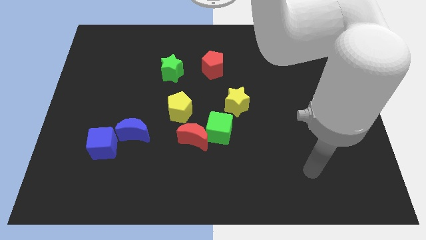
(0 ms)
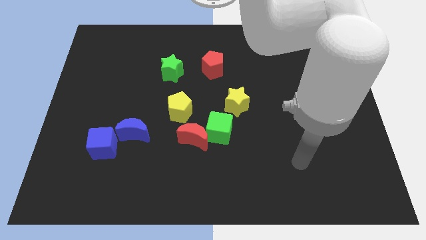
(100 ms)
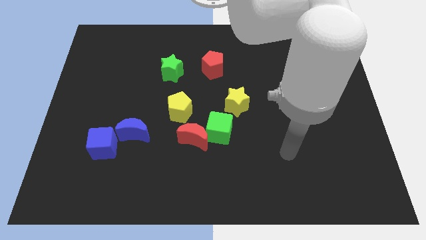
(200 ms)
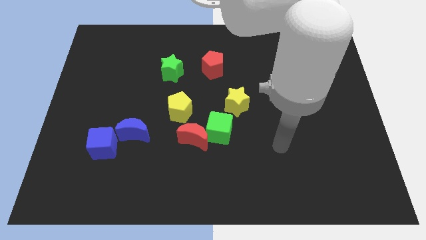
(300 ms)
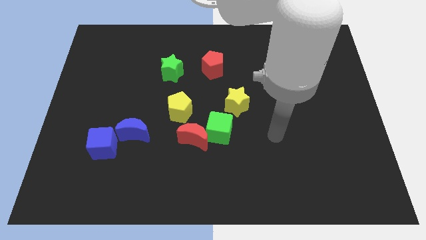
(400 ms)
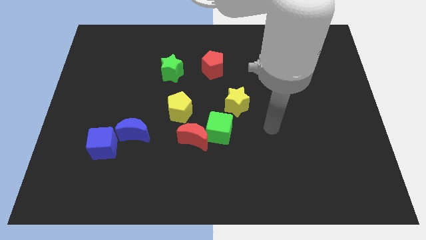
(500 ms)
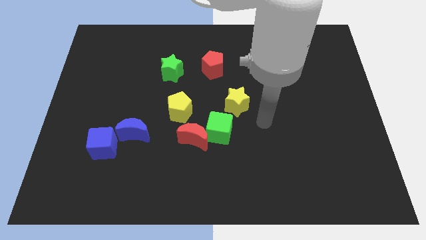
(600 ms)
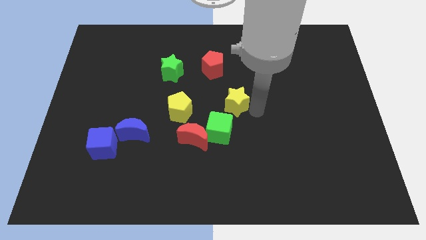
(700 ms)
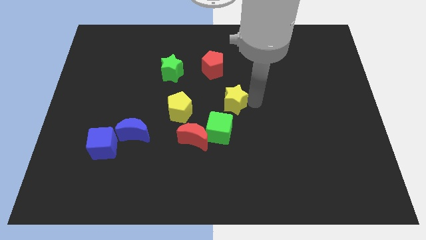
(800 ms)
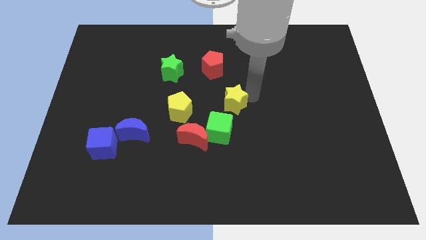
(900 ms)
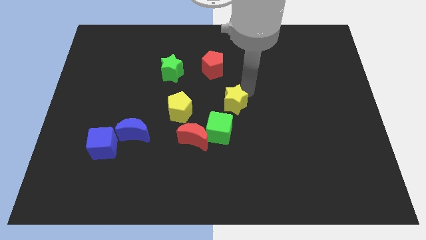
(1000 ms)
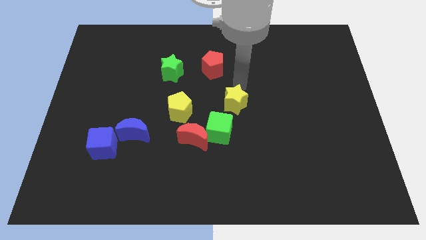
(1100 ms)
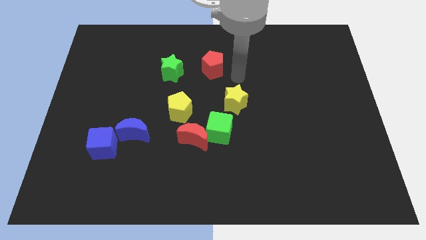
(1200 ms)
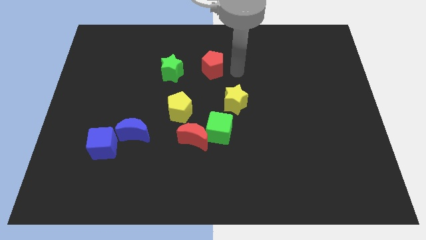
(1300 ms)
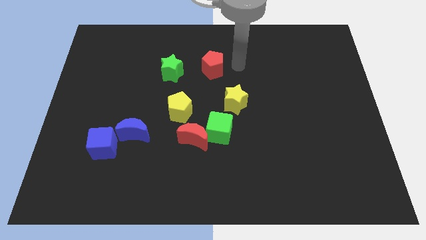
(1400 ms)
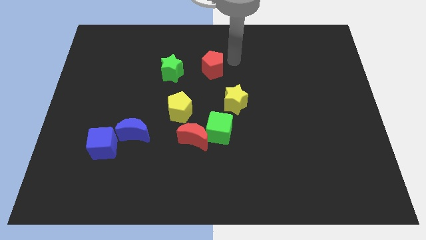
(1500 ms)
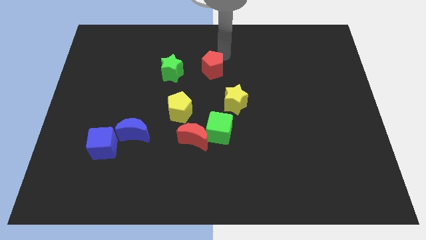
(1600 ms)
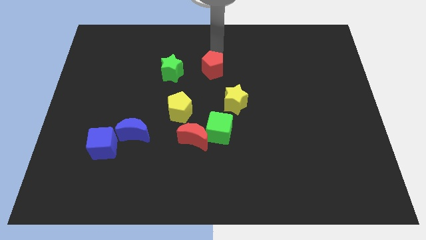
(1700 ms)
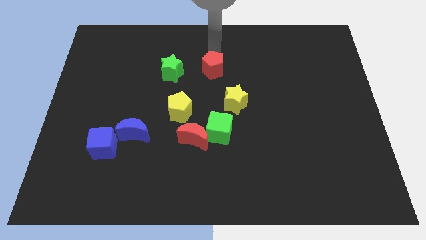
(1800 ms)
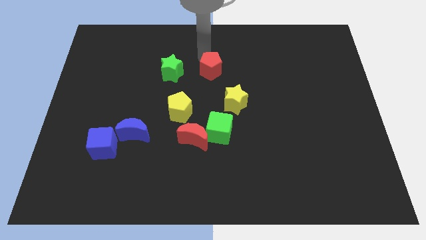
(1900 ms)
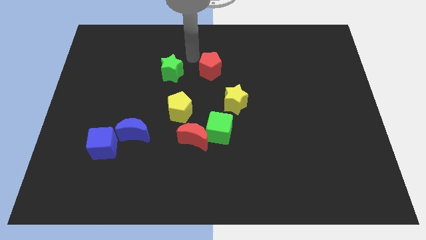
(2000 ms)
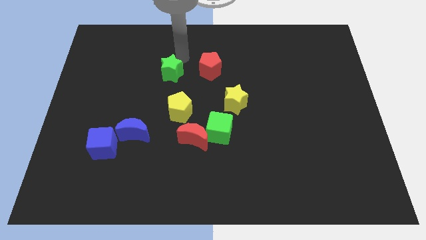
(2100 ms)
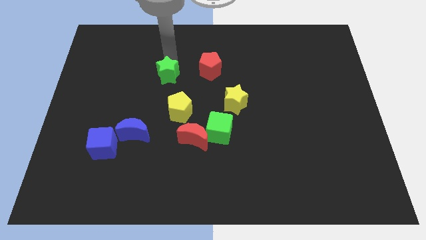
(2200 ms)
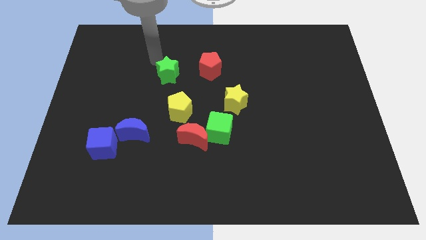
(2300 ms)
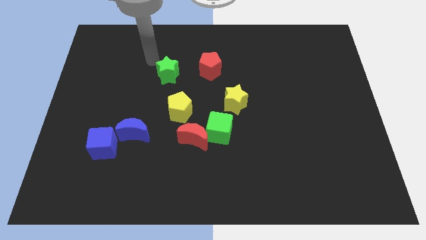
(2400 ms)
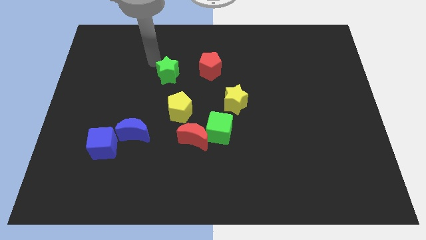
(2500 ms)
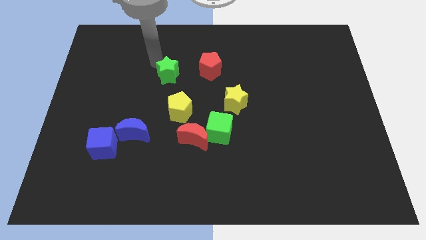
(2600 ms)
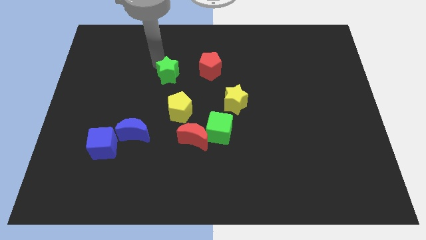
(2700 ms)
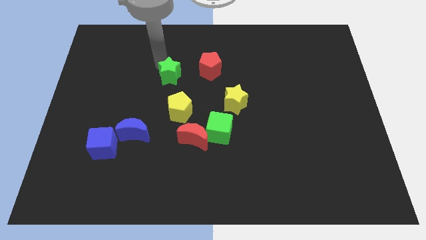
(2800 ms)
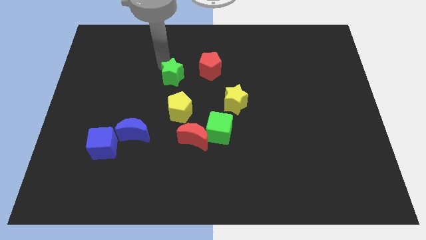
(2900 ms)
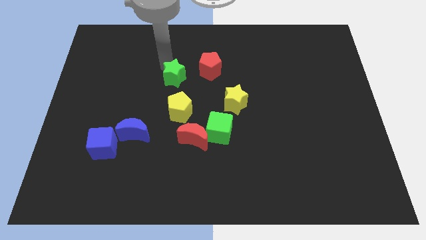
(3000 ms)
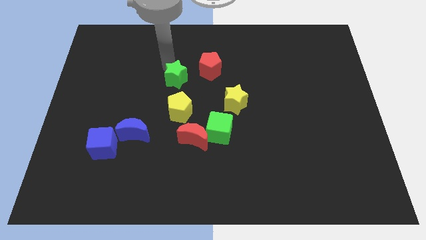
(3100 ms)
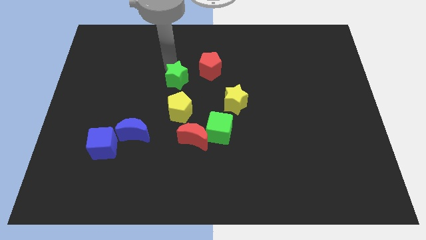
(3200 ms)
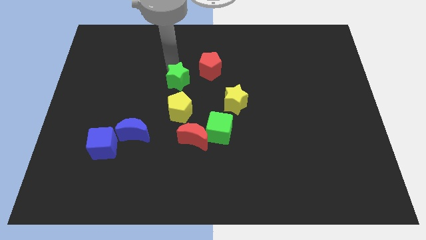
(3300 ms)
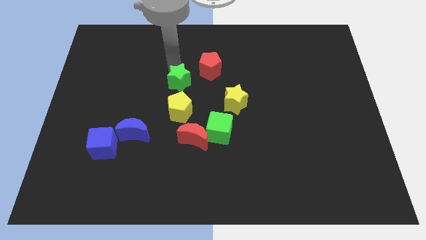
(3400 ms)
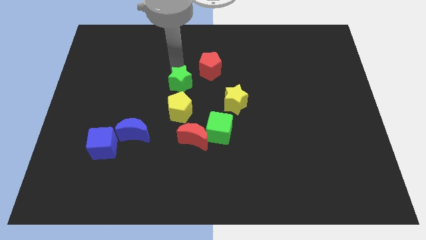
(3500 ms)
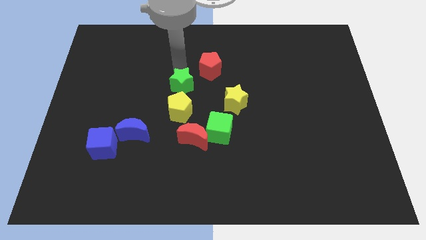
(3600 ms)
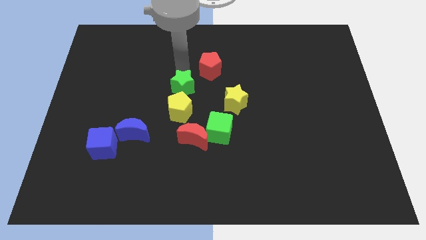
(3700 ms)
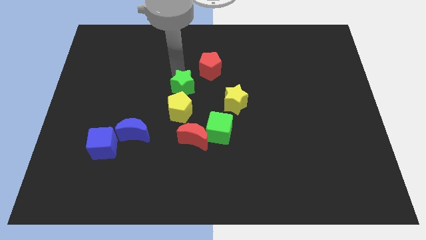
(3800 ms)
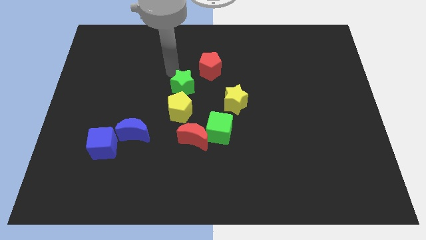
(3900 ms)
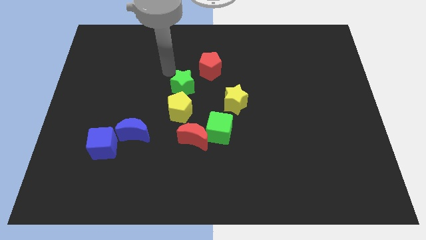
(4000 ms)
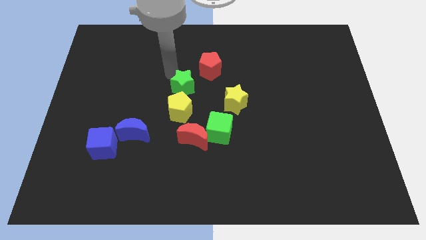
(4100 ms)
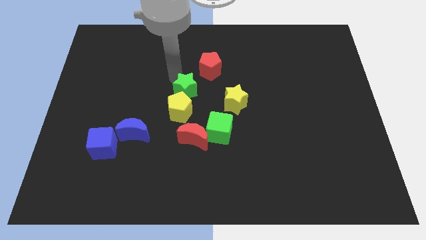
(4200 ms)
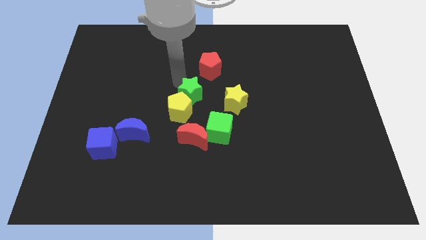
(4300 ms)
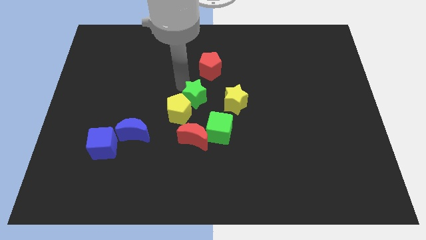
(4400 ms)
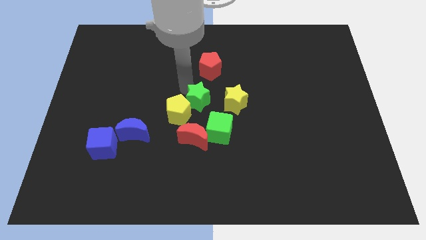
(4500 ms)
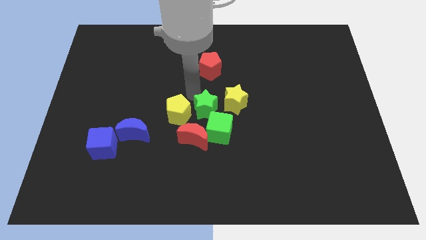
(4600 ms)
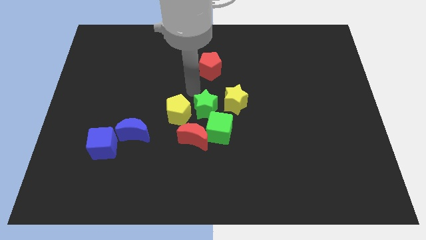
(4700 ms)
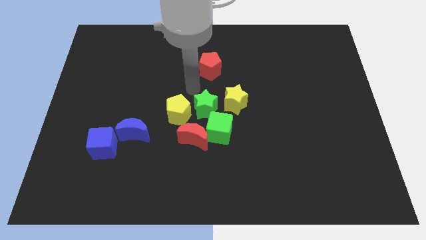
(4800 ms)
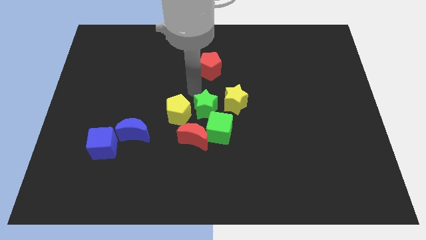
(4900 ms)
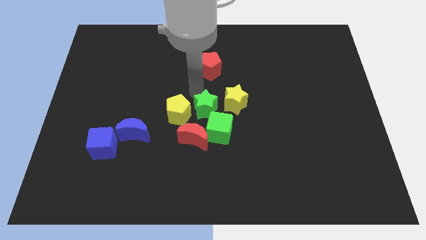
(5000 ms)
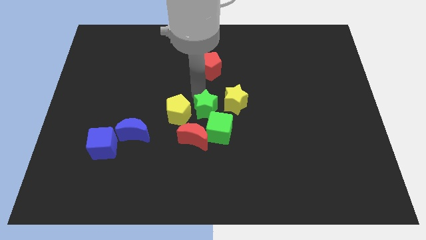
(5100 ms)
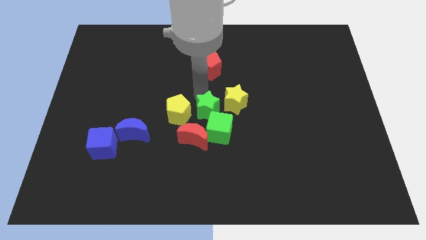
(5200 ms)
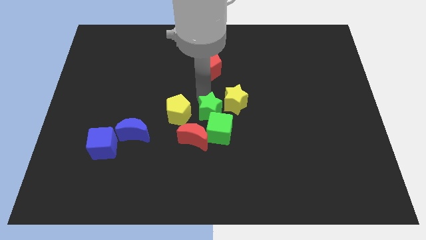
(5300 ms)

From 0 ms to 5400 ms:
put the green star to the green cube

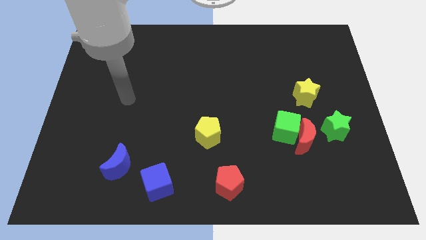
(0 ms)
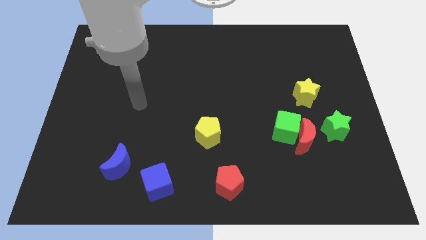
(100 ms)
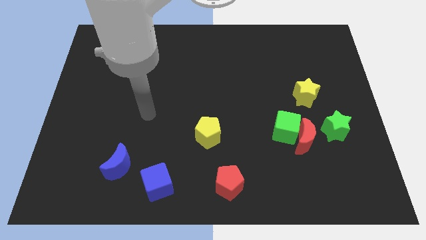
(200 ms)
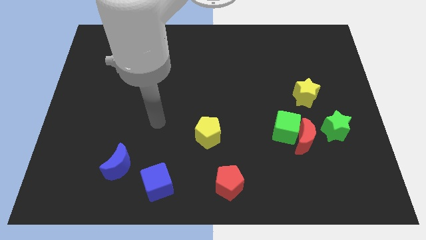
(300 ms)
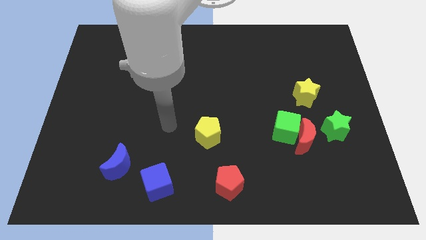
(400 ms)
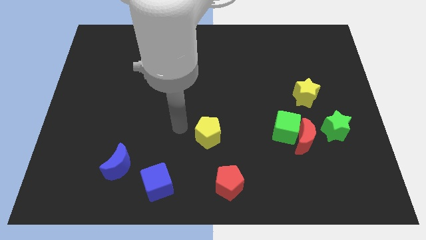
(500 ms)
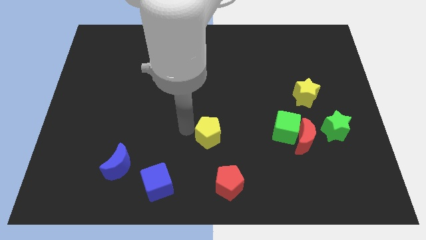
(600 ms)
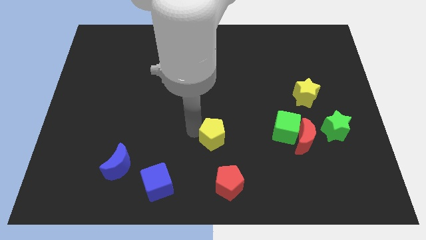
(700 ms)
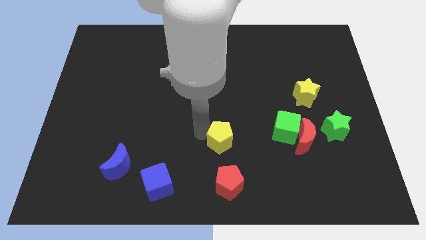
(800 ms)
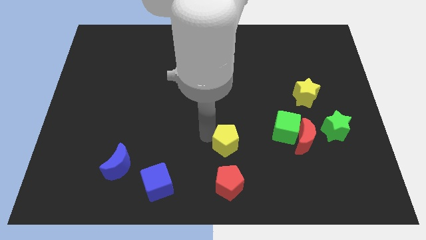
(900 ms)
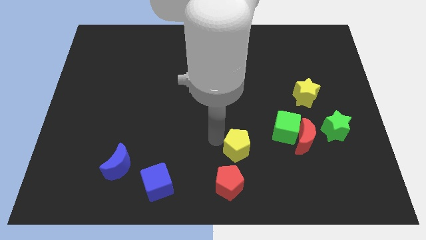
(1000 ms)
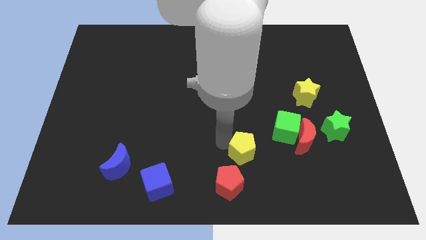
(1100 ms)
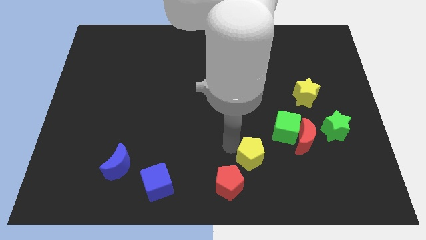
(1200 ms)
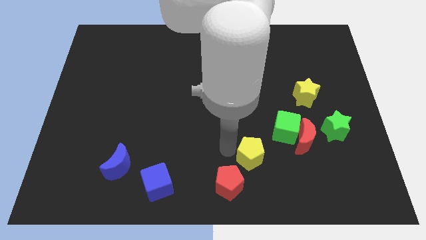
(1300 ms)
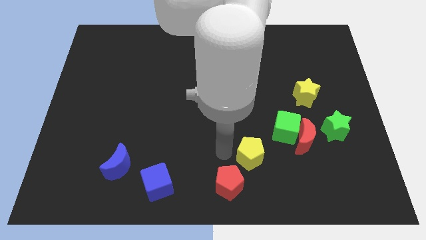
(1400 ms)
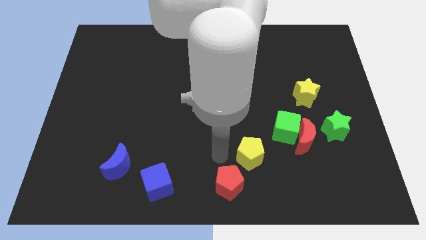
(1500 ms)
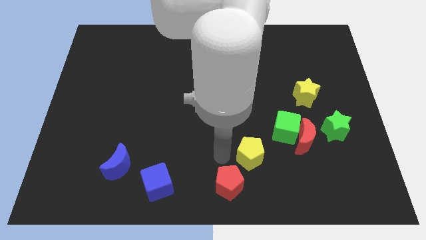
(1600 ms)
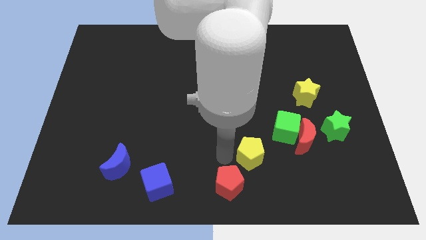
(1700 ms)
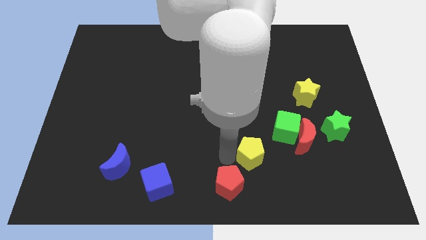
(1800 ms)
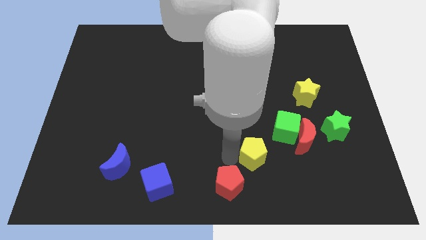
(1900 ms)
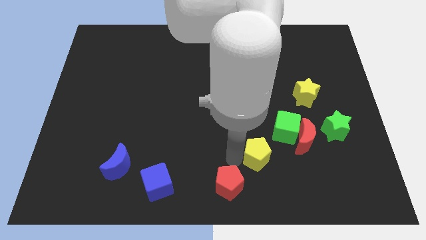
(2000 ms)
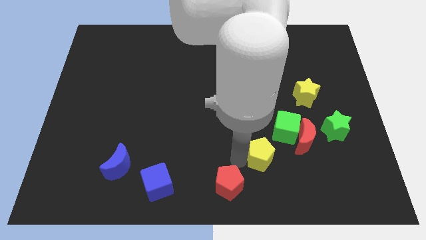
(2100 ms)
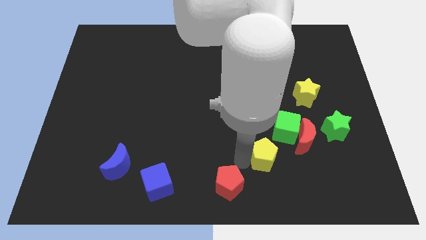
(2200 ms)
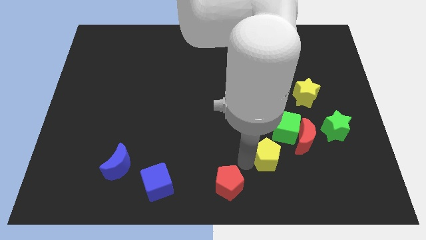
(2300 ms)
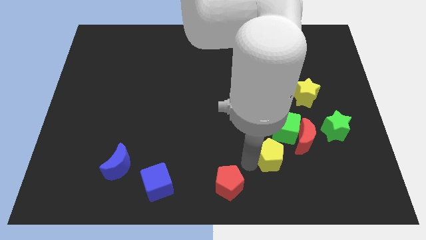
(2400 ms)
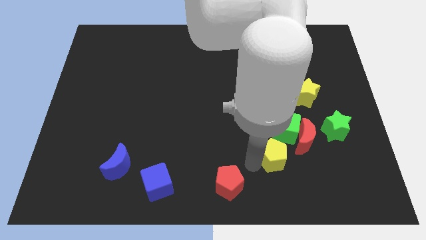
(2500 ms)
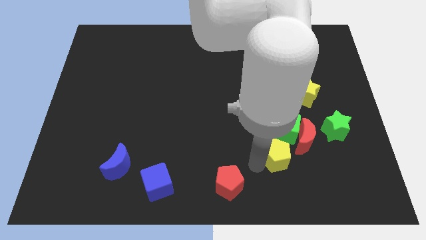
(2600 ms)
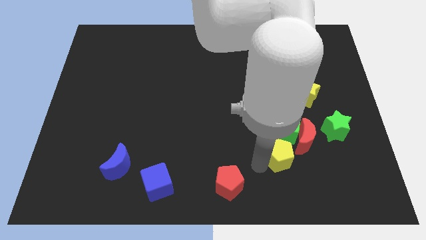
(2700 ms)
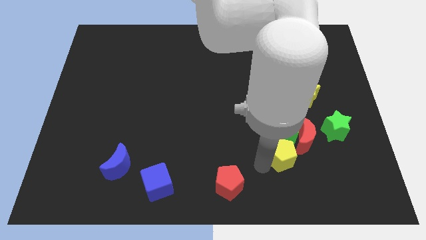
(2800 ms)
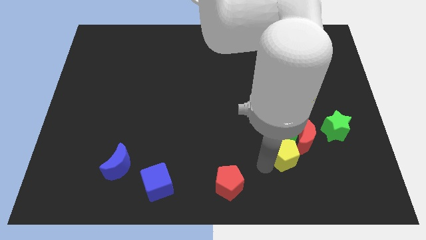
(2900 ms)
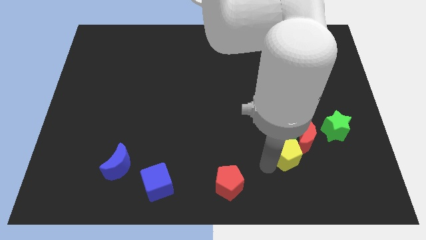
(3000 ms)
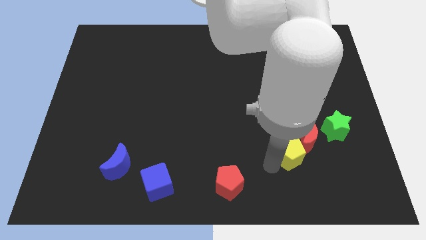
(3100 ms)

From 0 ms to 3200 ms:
push the yellow pentagon next to the red moon
